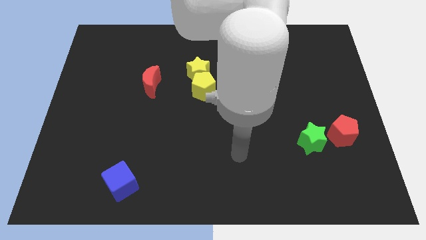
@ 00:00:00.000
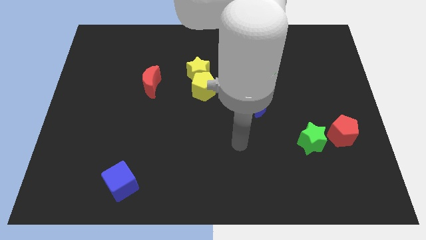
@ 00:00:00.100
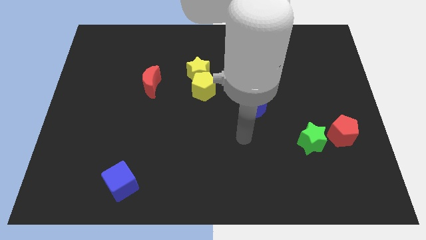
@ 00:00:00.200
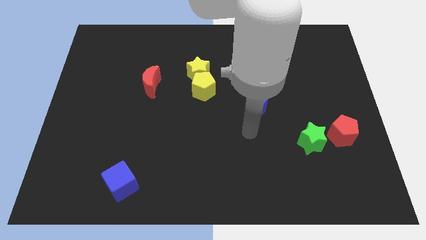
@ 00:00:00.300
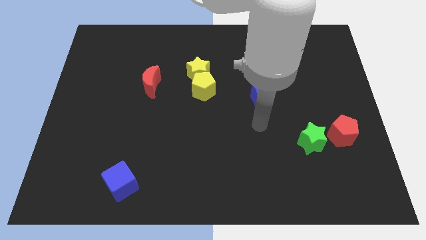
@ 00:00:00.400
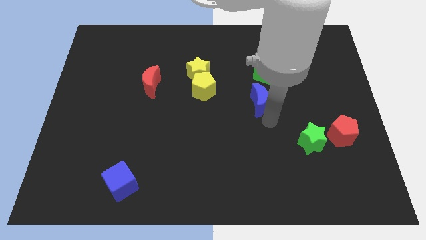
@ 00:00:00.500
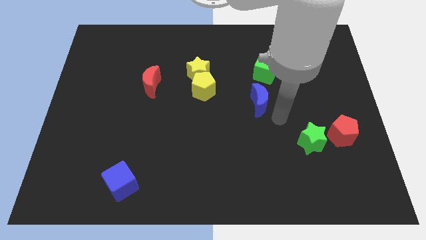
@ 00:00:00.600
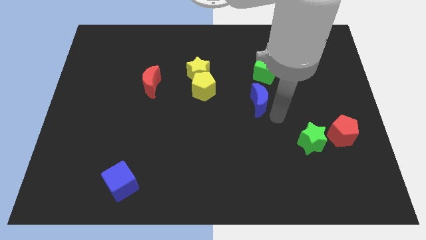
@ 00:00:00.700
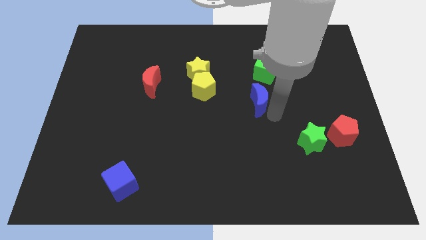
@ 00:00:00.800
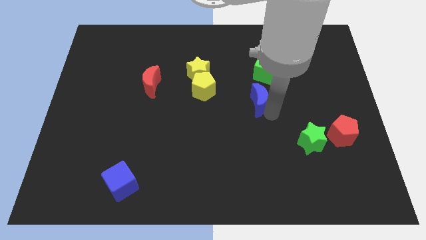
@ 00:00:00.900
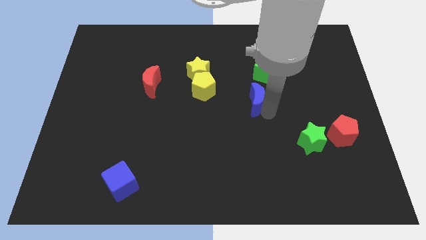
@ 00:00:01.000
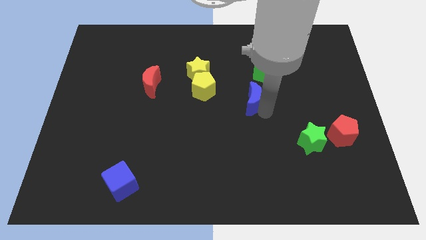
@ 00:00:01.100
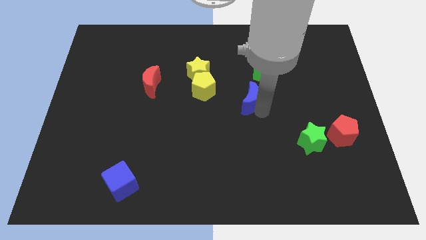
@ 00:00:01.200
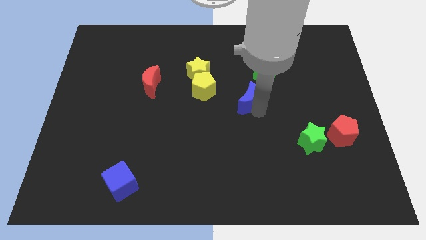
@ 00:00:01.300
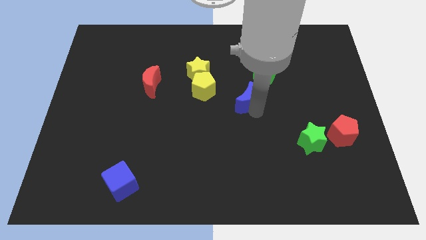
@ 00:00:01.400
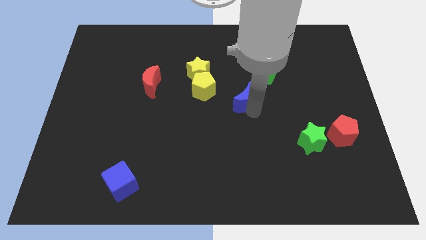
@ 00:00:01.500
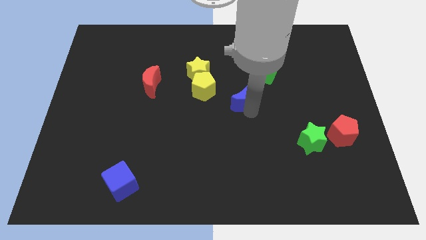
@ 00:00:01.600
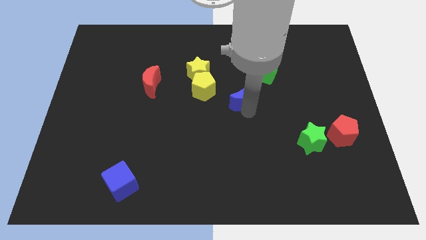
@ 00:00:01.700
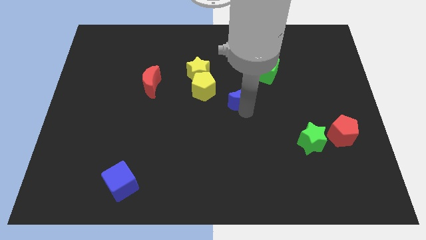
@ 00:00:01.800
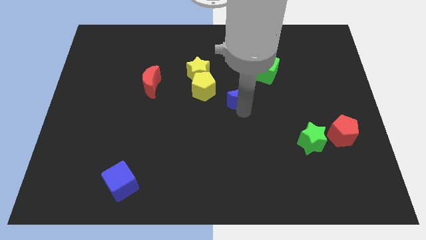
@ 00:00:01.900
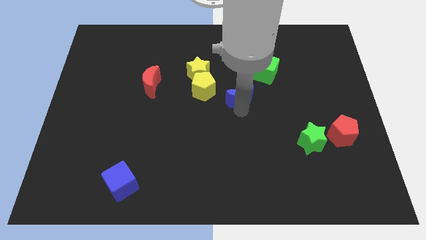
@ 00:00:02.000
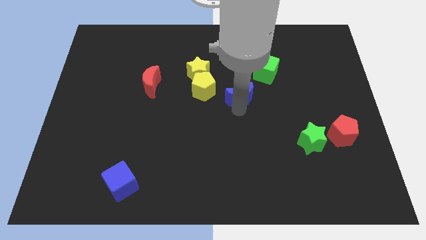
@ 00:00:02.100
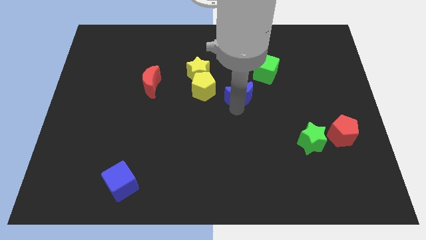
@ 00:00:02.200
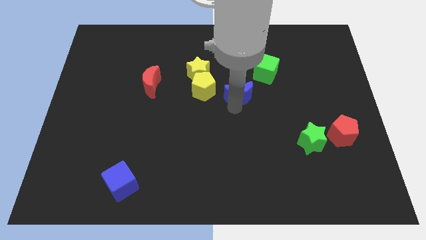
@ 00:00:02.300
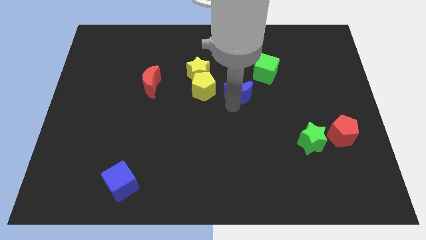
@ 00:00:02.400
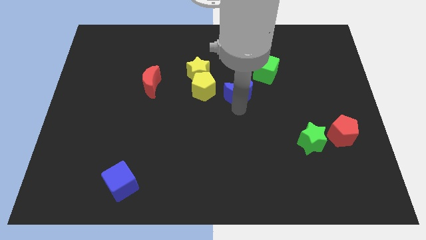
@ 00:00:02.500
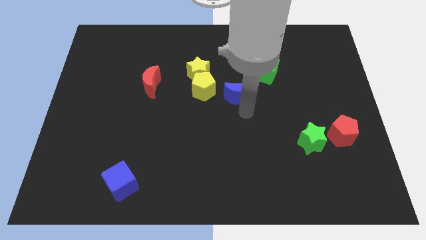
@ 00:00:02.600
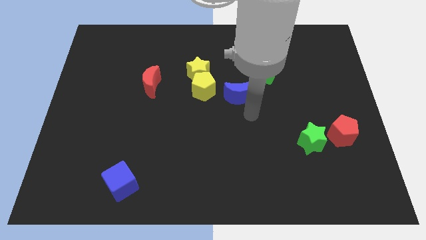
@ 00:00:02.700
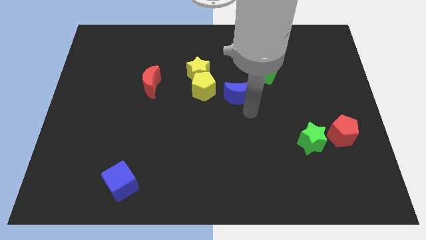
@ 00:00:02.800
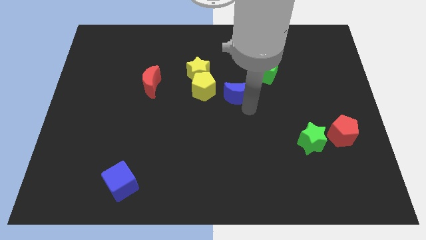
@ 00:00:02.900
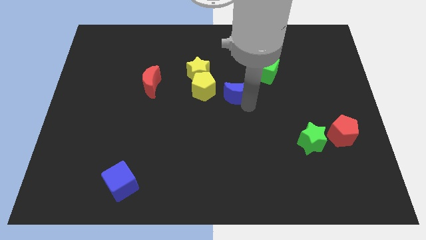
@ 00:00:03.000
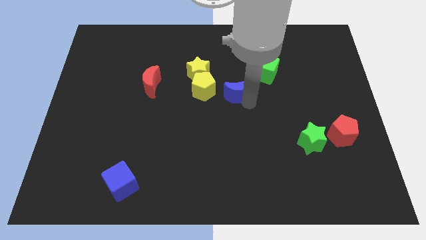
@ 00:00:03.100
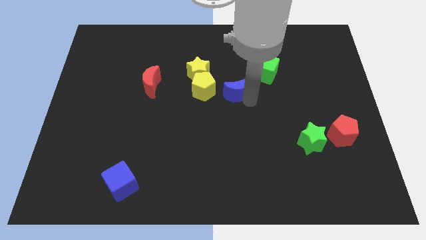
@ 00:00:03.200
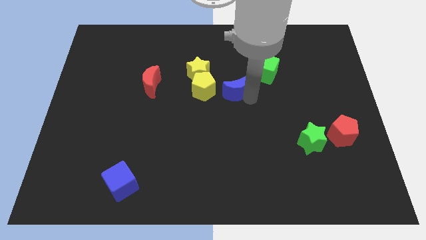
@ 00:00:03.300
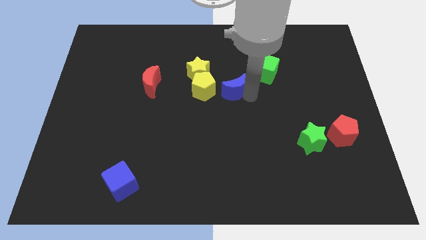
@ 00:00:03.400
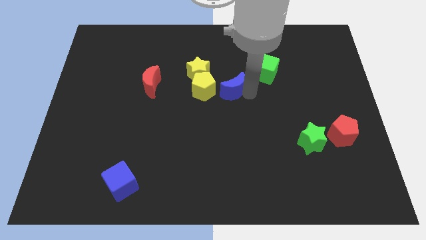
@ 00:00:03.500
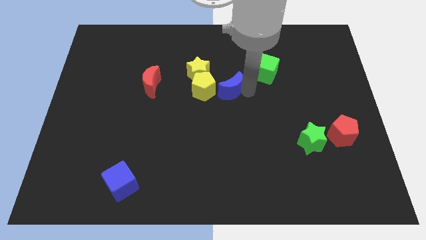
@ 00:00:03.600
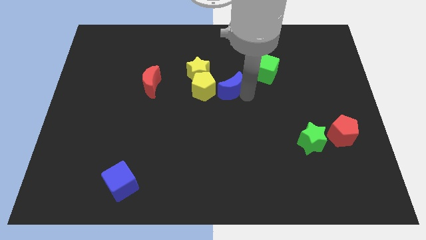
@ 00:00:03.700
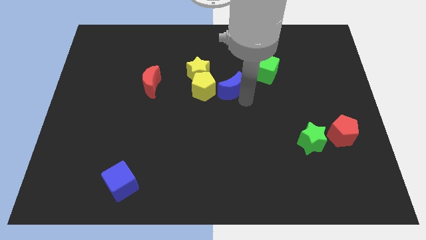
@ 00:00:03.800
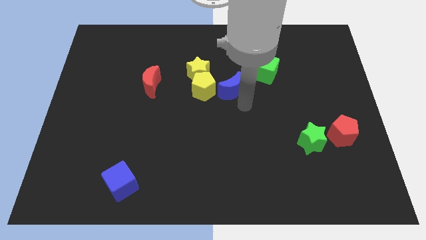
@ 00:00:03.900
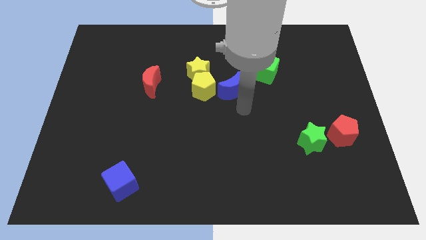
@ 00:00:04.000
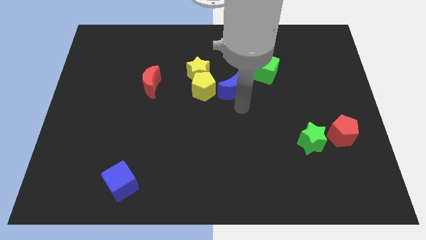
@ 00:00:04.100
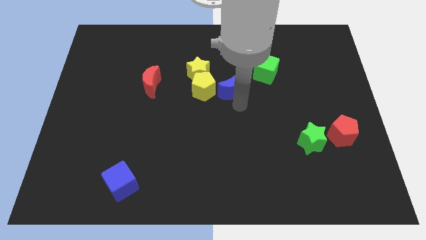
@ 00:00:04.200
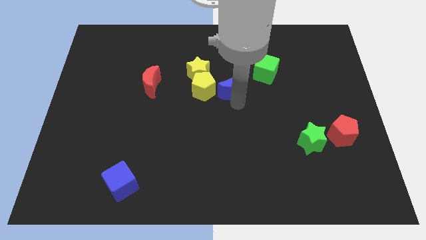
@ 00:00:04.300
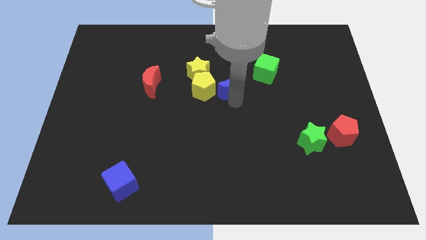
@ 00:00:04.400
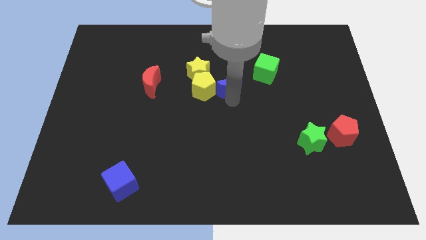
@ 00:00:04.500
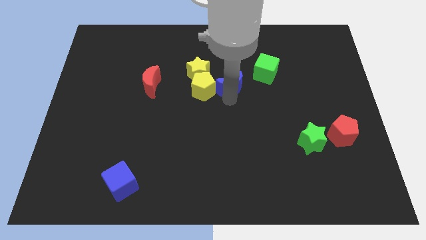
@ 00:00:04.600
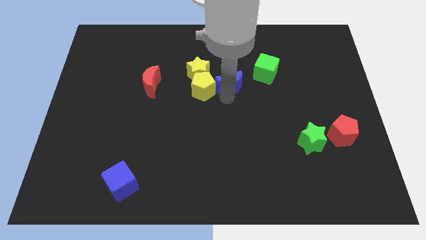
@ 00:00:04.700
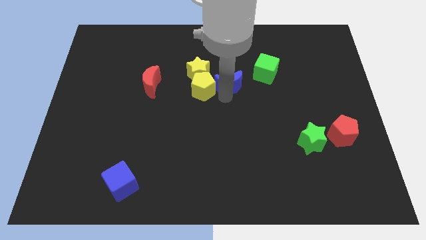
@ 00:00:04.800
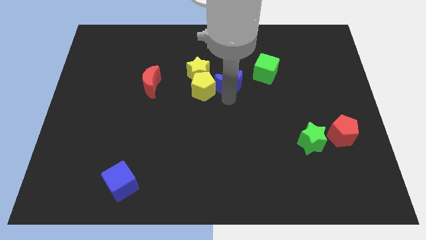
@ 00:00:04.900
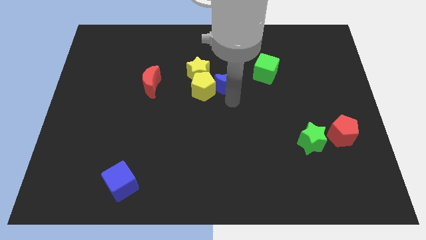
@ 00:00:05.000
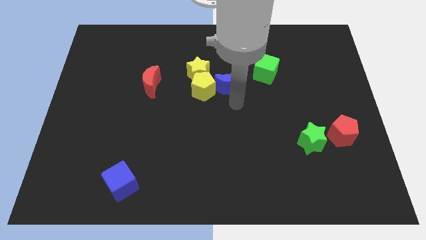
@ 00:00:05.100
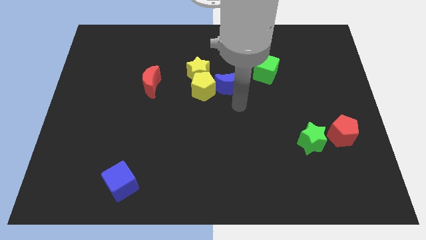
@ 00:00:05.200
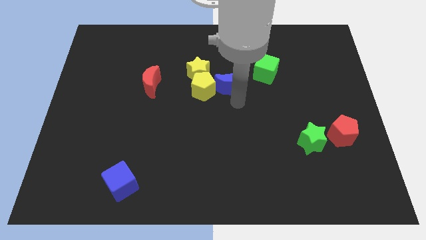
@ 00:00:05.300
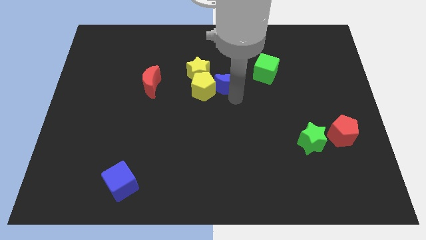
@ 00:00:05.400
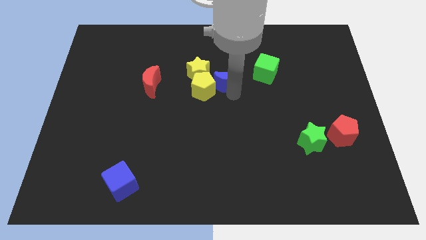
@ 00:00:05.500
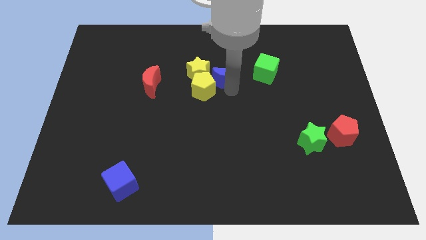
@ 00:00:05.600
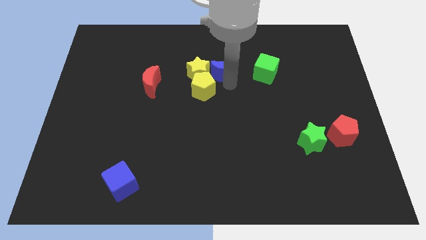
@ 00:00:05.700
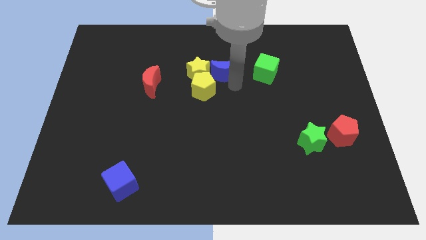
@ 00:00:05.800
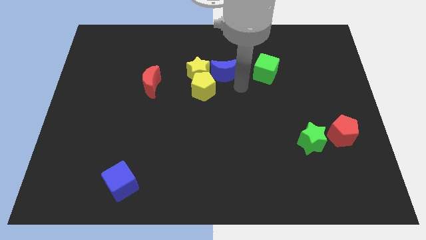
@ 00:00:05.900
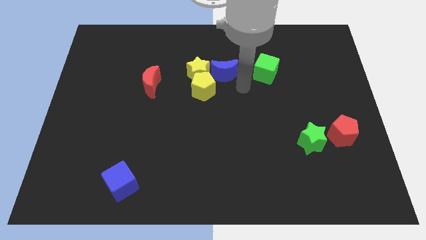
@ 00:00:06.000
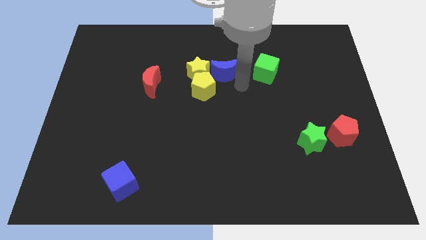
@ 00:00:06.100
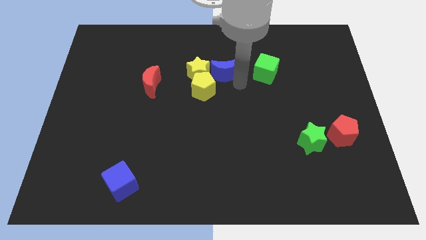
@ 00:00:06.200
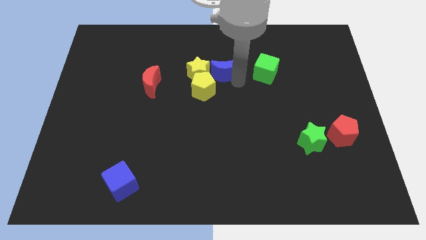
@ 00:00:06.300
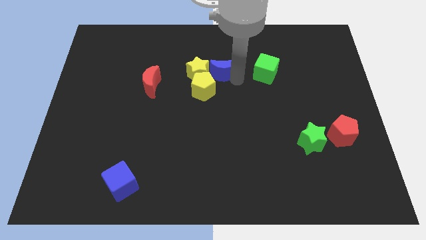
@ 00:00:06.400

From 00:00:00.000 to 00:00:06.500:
slide the blue moon above the yellow pentagon

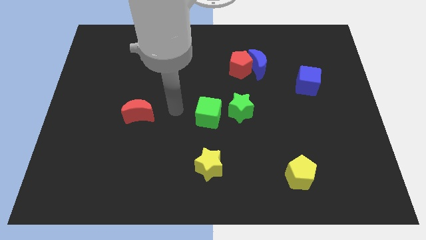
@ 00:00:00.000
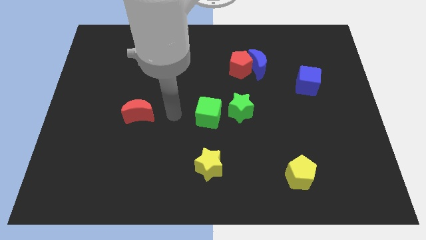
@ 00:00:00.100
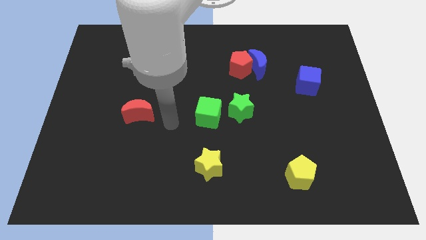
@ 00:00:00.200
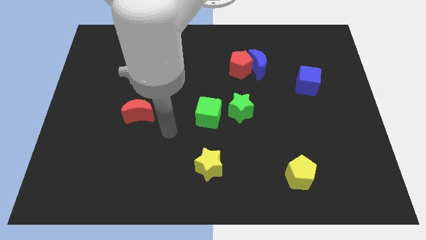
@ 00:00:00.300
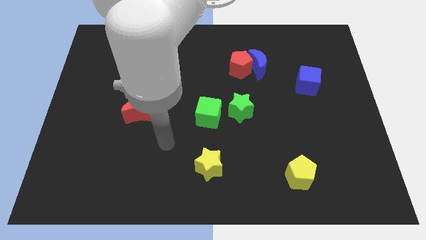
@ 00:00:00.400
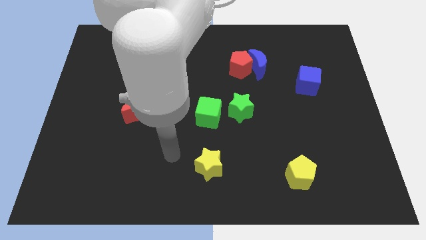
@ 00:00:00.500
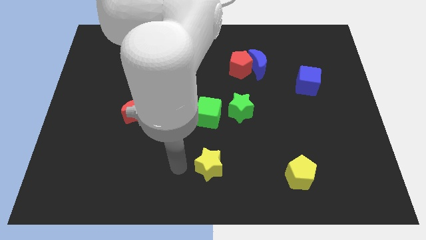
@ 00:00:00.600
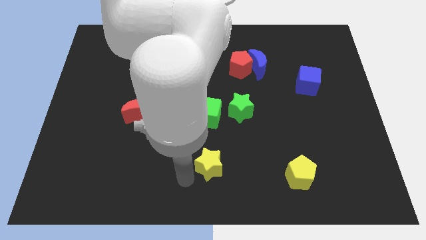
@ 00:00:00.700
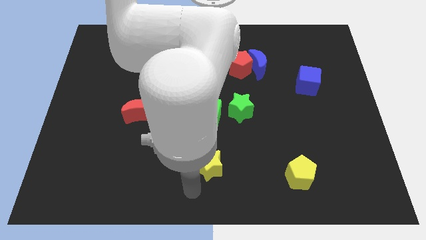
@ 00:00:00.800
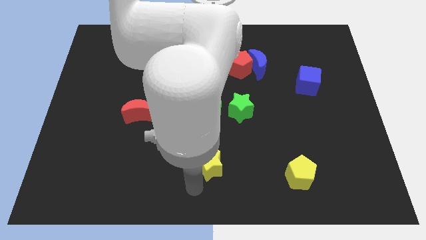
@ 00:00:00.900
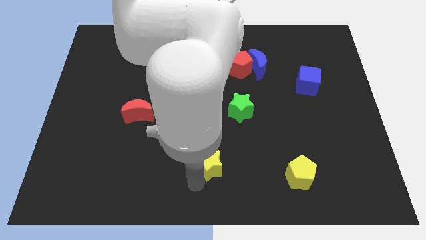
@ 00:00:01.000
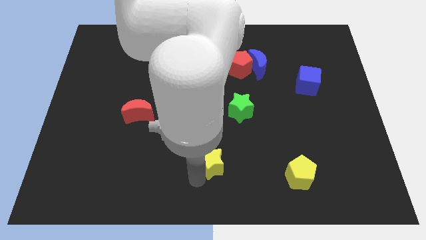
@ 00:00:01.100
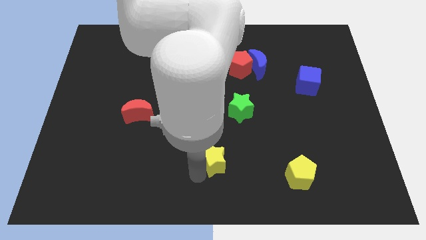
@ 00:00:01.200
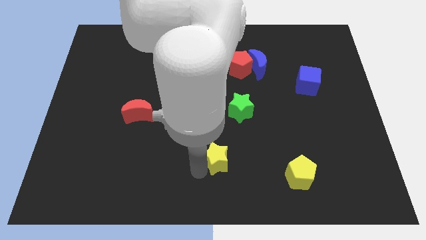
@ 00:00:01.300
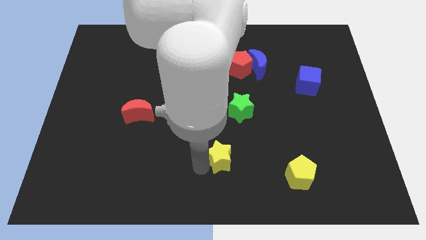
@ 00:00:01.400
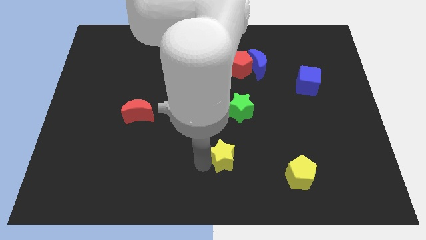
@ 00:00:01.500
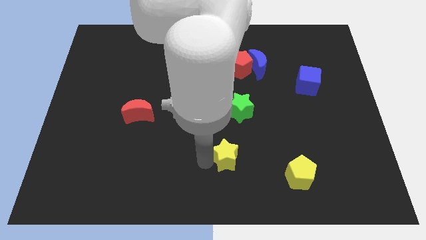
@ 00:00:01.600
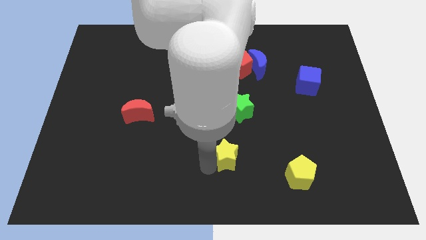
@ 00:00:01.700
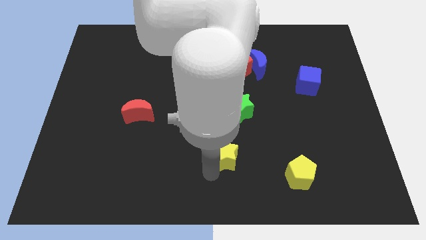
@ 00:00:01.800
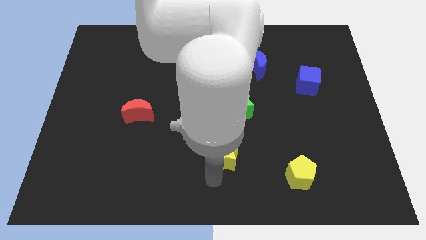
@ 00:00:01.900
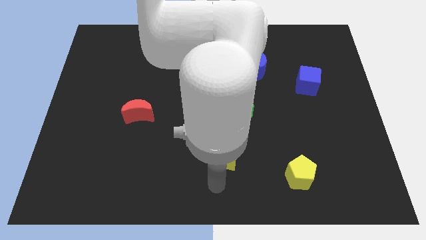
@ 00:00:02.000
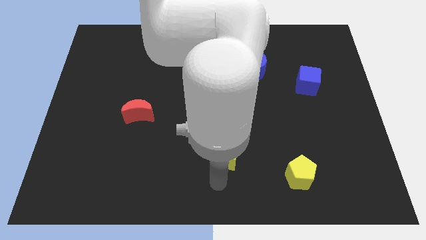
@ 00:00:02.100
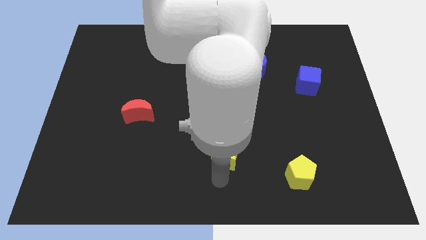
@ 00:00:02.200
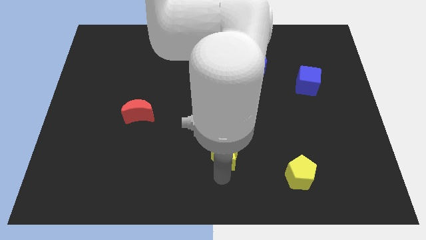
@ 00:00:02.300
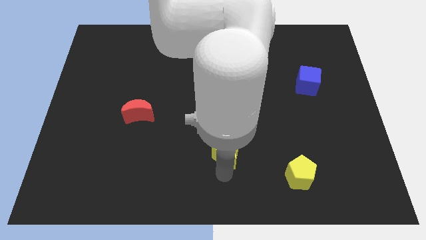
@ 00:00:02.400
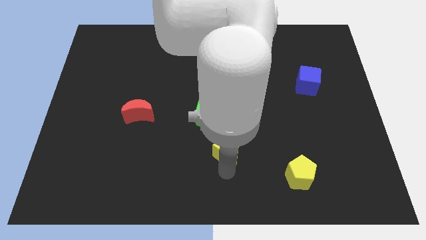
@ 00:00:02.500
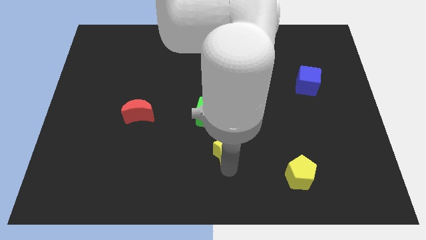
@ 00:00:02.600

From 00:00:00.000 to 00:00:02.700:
move the yellow star to the bottom right of the green cube
